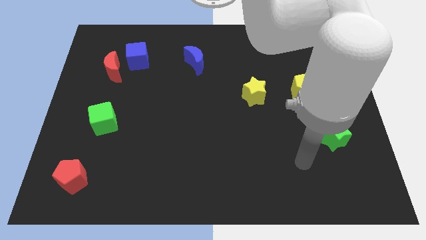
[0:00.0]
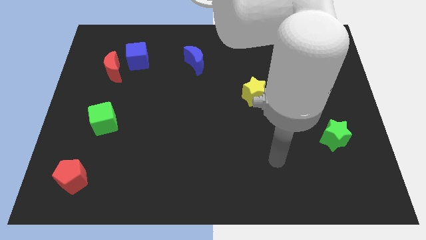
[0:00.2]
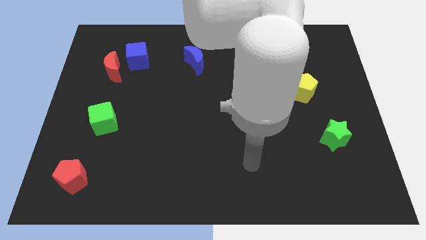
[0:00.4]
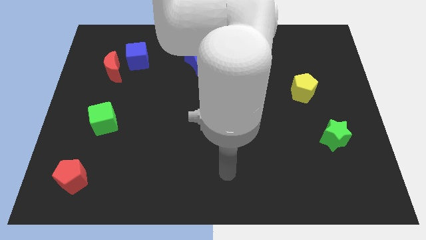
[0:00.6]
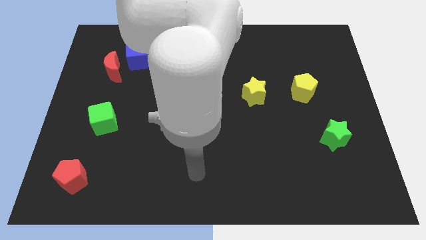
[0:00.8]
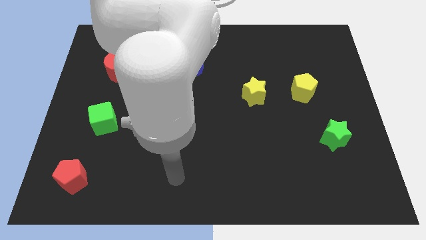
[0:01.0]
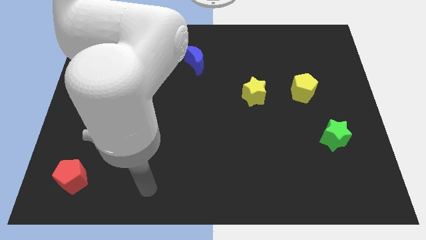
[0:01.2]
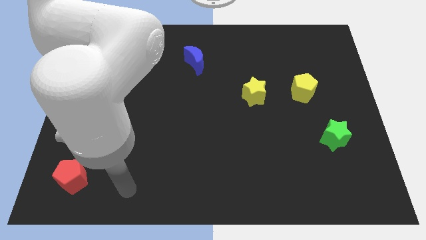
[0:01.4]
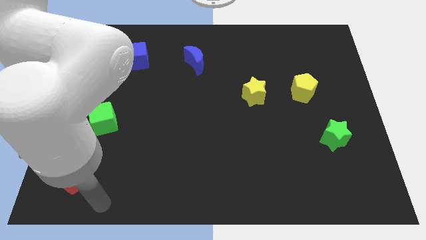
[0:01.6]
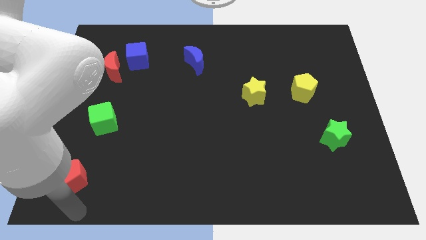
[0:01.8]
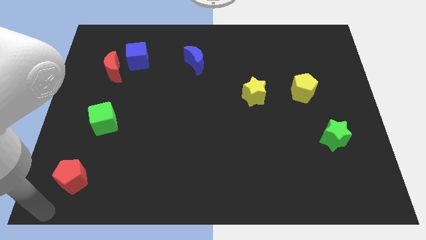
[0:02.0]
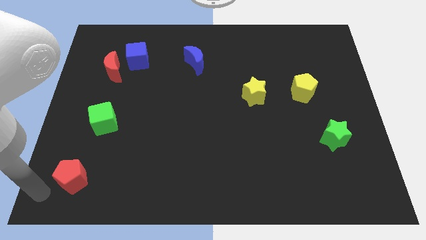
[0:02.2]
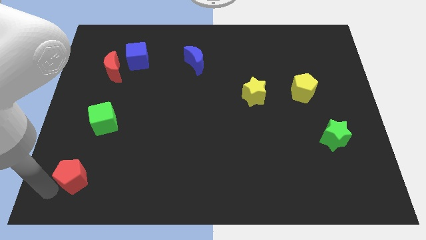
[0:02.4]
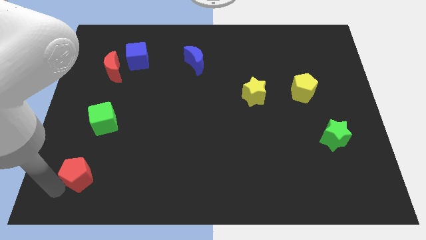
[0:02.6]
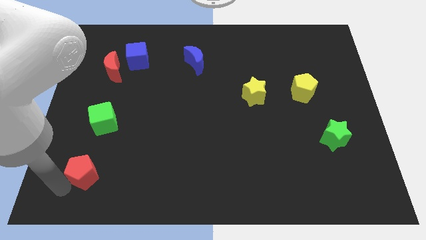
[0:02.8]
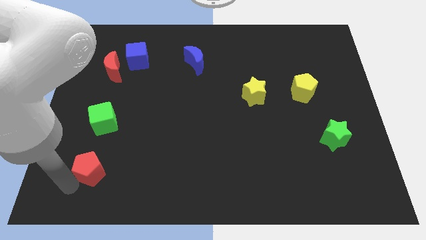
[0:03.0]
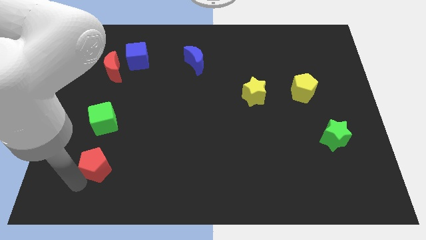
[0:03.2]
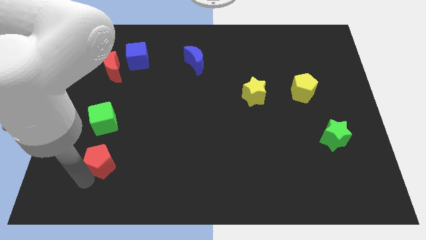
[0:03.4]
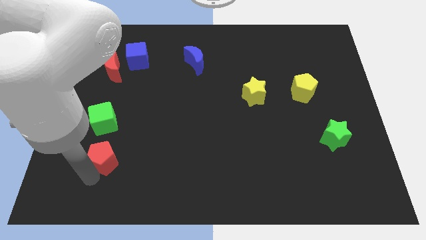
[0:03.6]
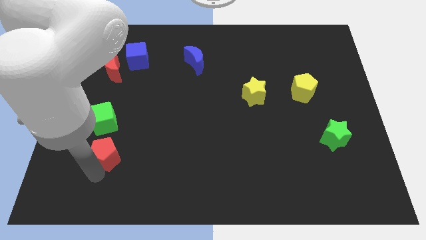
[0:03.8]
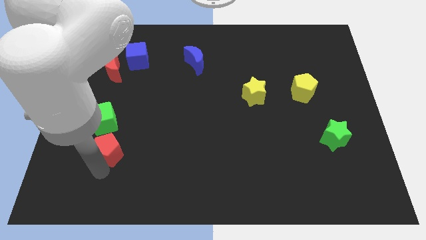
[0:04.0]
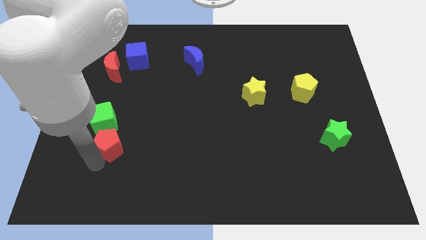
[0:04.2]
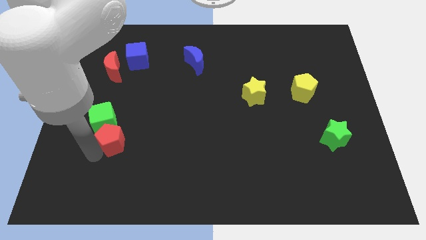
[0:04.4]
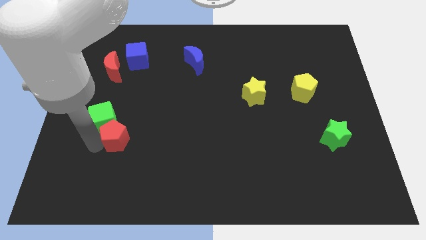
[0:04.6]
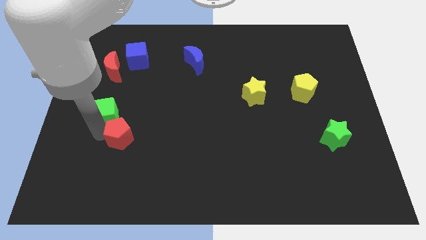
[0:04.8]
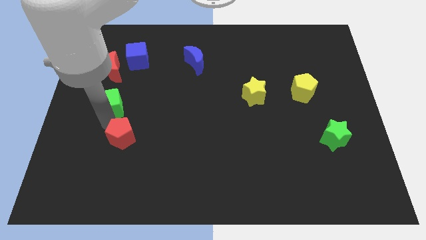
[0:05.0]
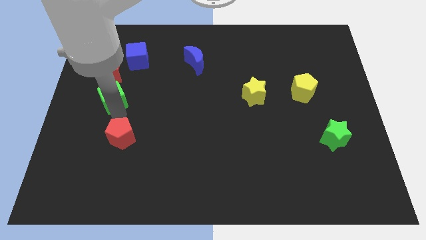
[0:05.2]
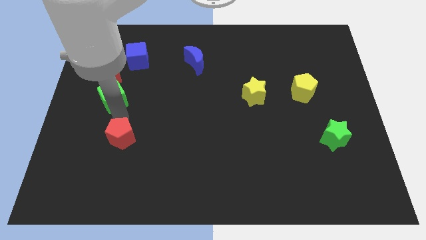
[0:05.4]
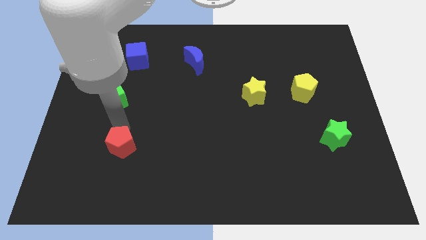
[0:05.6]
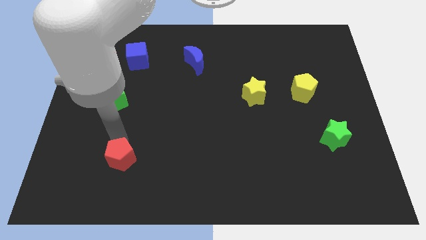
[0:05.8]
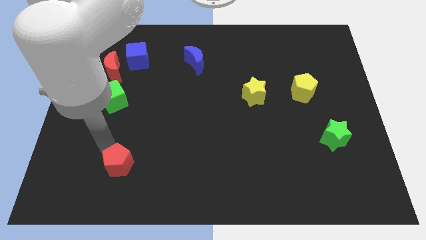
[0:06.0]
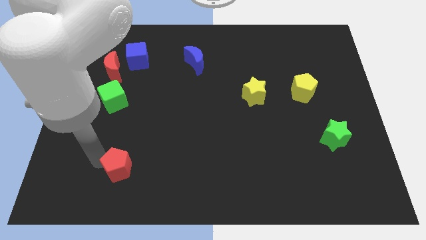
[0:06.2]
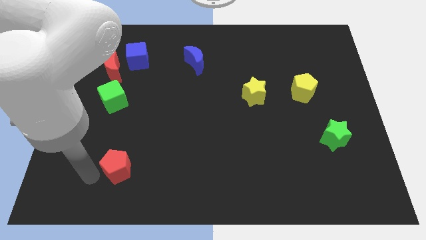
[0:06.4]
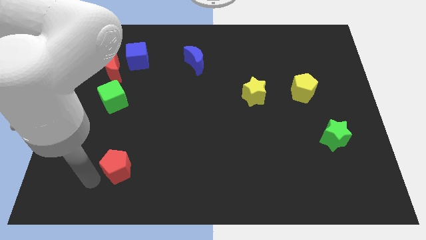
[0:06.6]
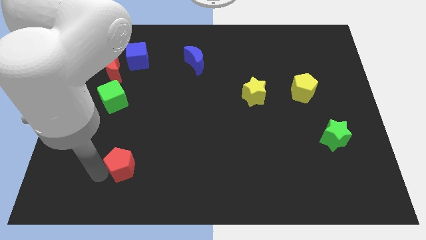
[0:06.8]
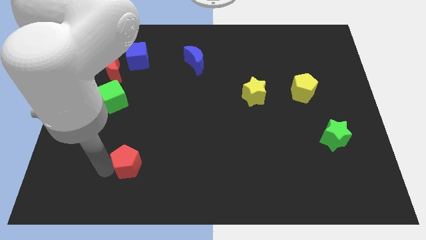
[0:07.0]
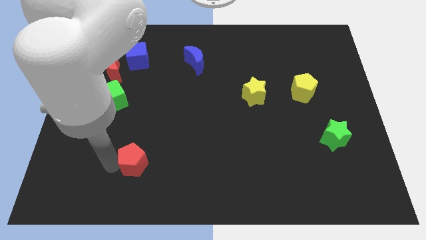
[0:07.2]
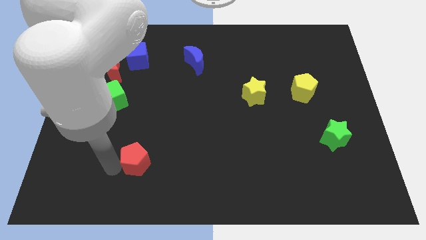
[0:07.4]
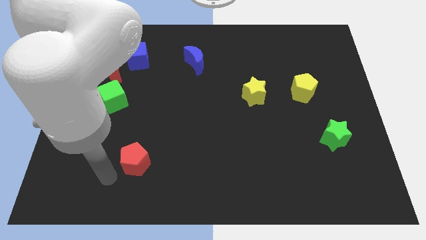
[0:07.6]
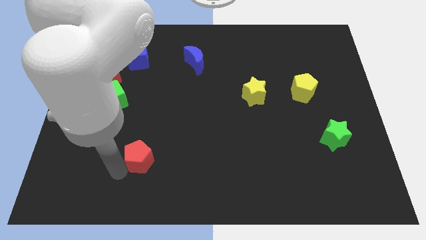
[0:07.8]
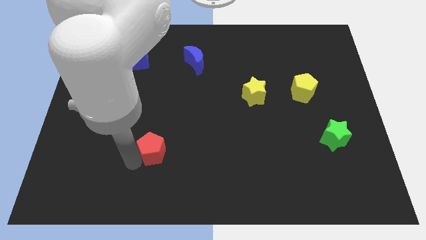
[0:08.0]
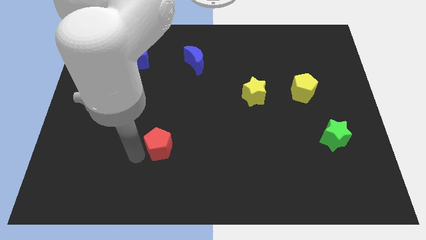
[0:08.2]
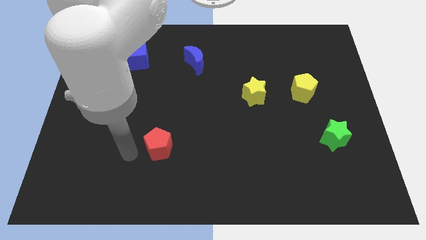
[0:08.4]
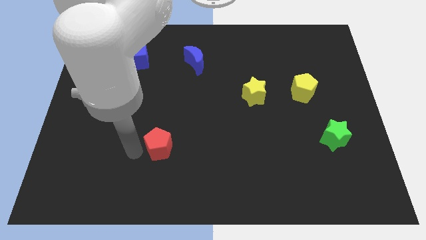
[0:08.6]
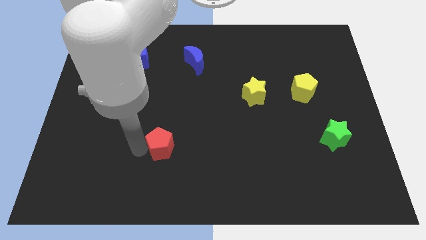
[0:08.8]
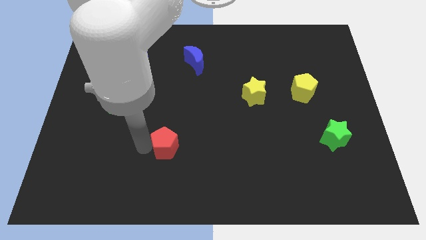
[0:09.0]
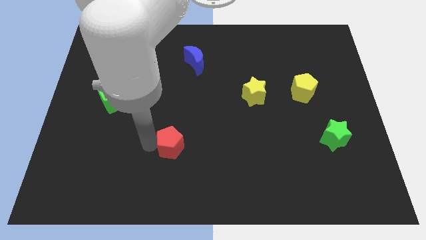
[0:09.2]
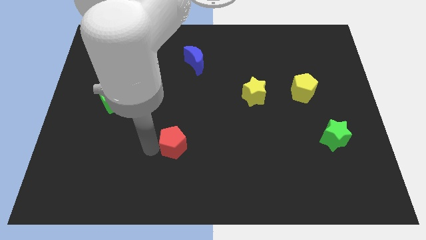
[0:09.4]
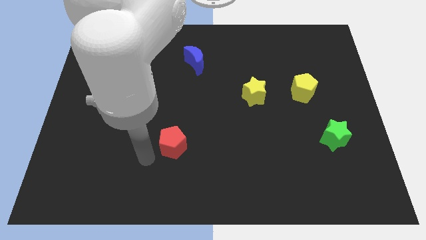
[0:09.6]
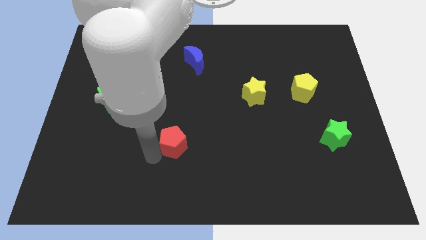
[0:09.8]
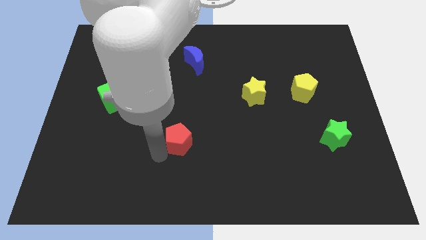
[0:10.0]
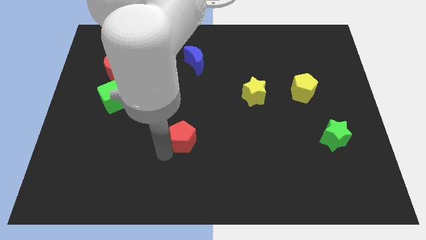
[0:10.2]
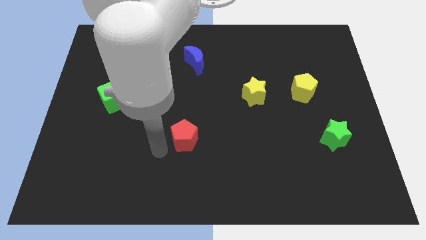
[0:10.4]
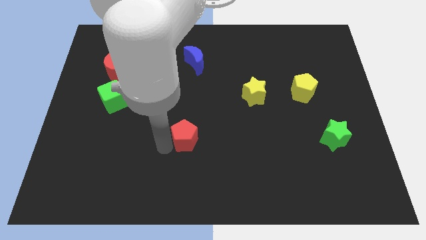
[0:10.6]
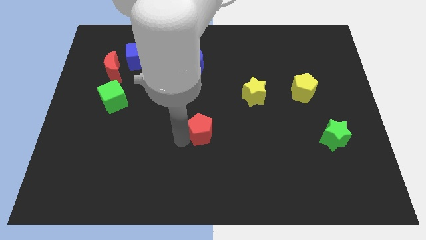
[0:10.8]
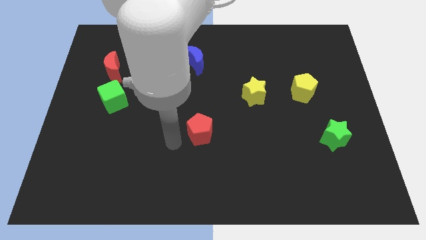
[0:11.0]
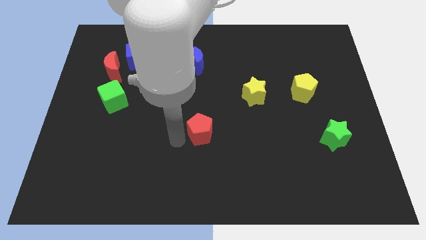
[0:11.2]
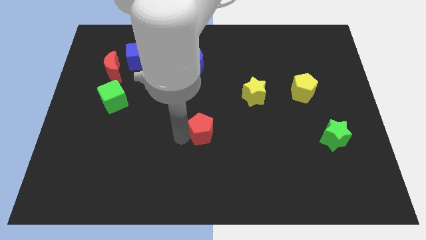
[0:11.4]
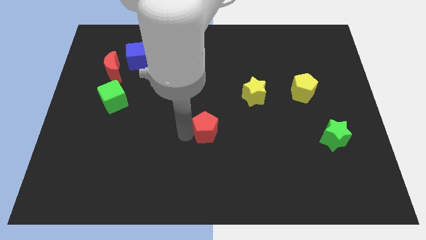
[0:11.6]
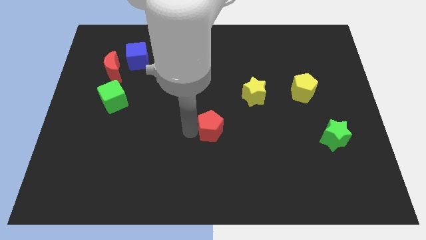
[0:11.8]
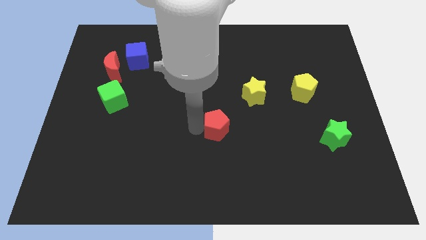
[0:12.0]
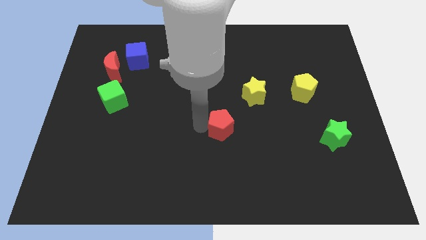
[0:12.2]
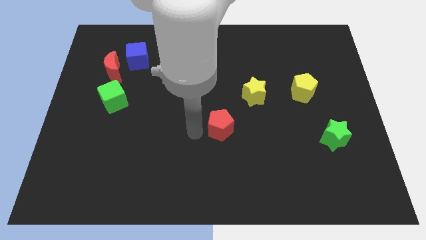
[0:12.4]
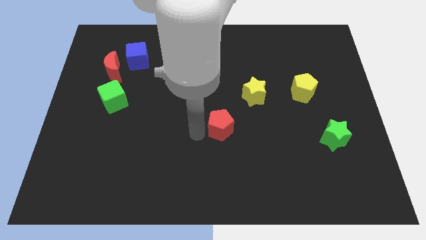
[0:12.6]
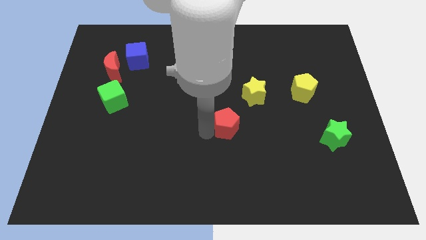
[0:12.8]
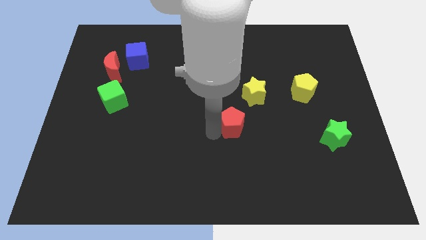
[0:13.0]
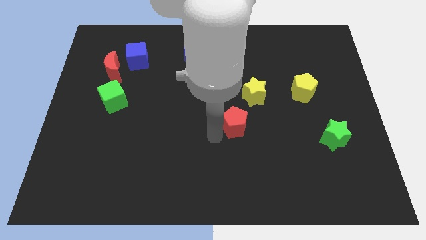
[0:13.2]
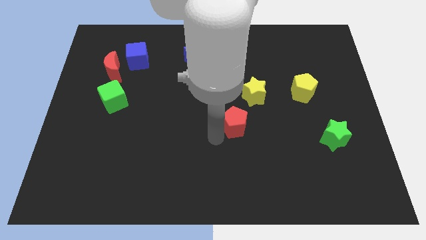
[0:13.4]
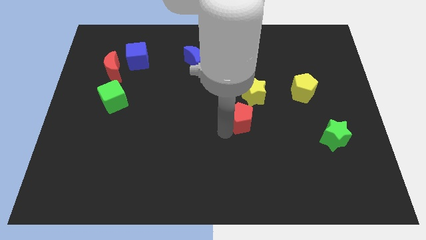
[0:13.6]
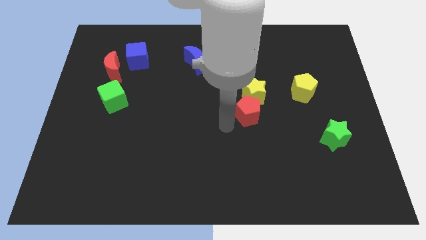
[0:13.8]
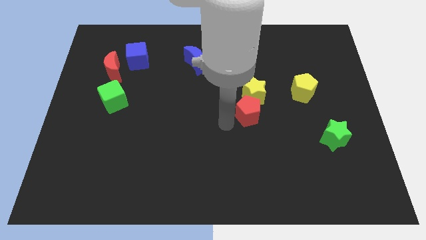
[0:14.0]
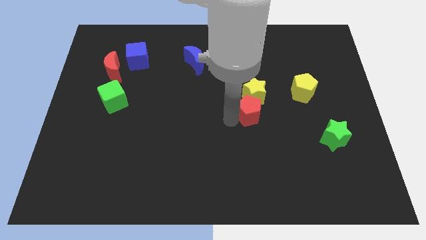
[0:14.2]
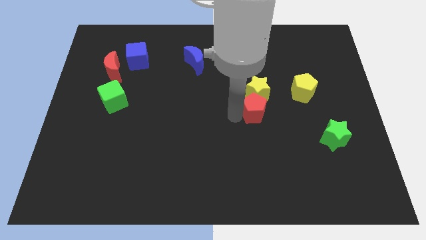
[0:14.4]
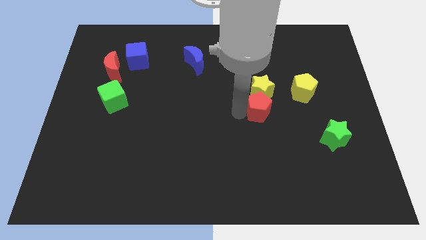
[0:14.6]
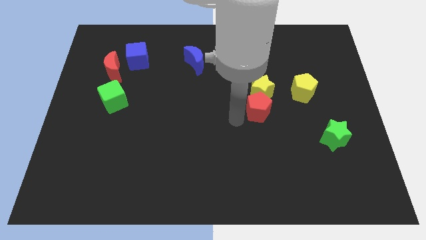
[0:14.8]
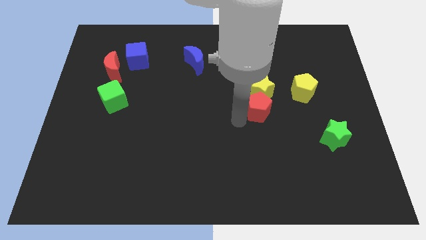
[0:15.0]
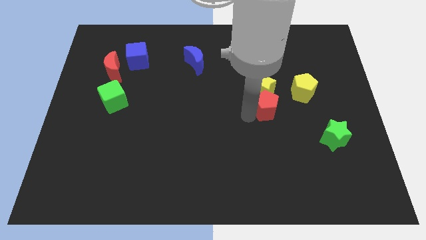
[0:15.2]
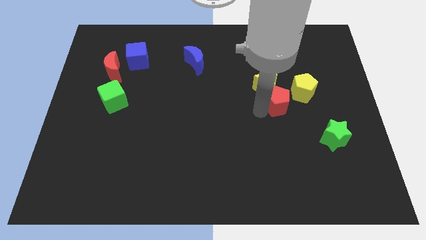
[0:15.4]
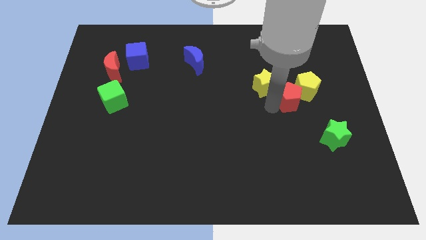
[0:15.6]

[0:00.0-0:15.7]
slide the red pentagon next to the yellow pentagon
